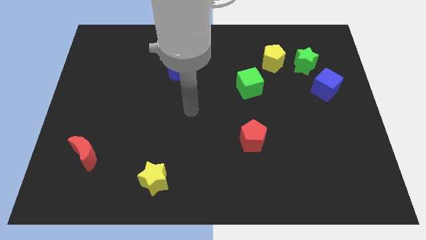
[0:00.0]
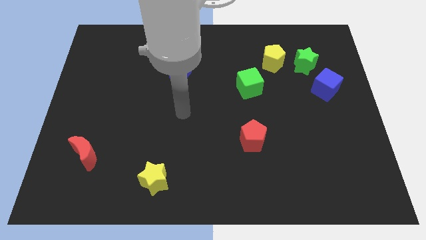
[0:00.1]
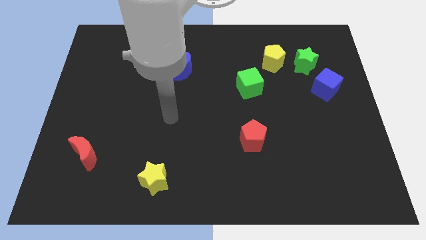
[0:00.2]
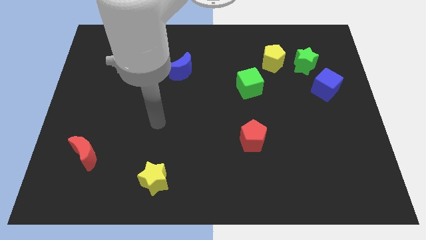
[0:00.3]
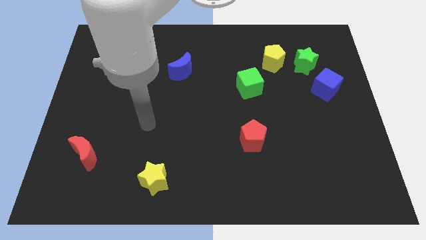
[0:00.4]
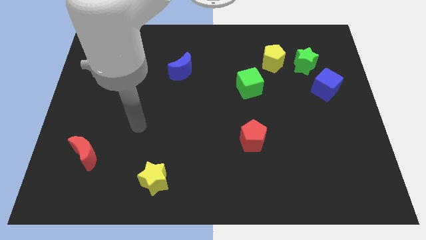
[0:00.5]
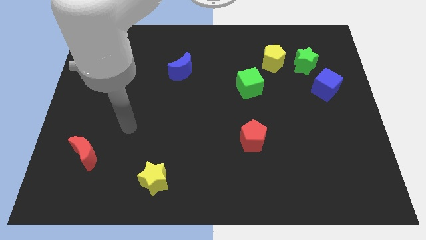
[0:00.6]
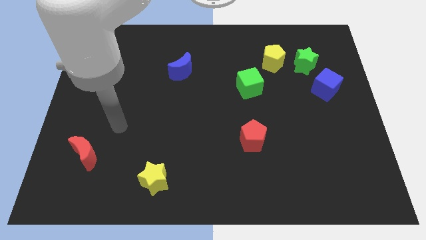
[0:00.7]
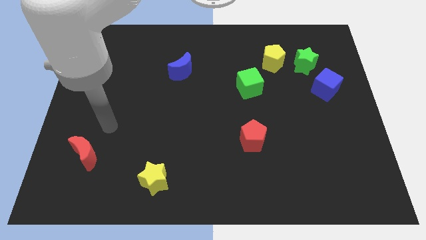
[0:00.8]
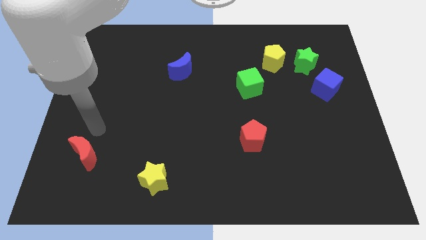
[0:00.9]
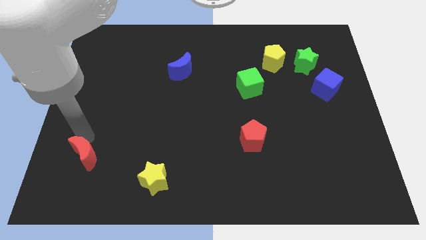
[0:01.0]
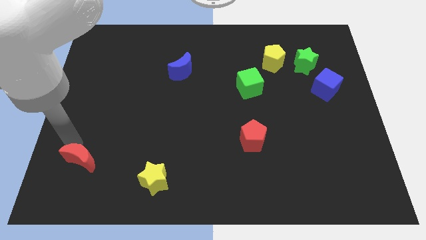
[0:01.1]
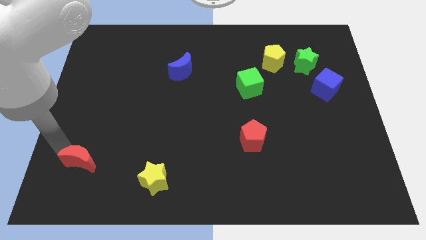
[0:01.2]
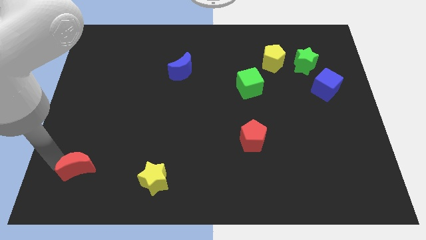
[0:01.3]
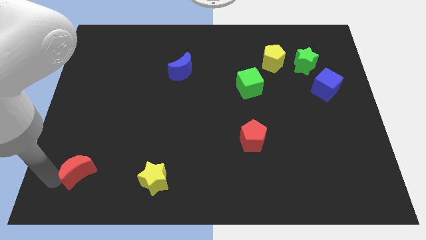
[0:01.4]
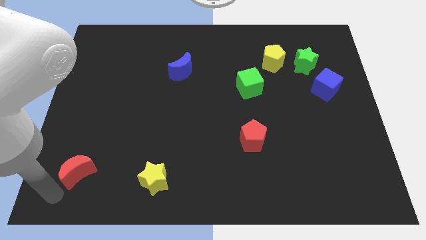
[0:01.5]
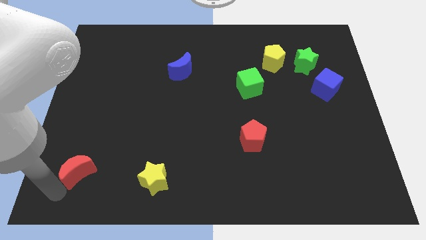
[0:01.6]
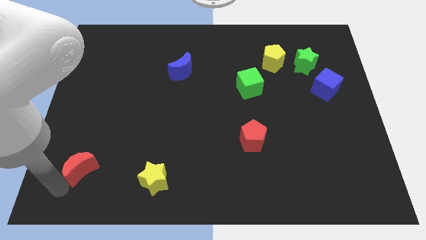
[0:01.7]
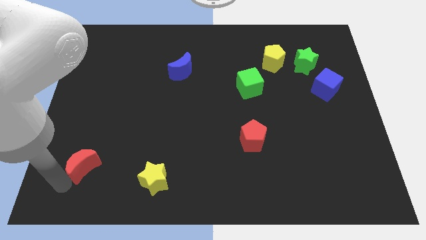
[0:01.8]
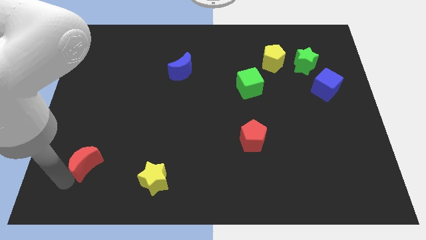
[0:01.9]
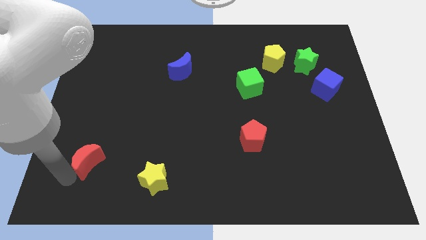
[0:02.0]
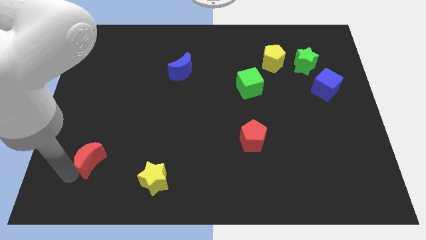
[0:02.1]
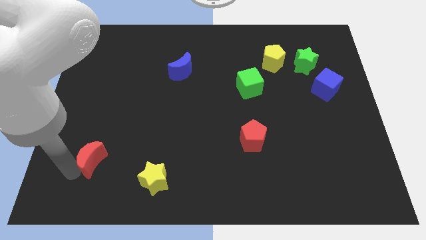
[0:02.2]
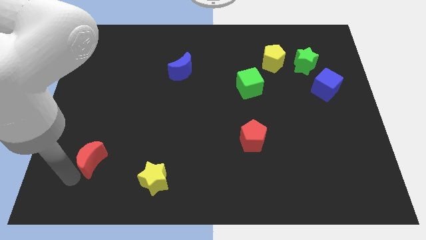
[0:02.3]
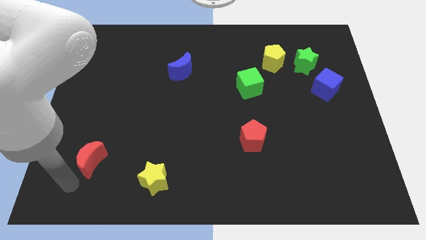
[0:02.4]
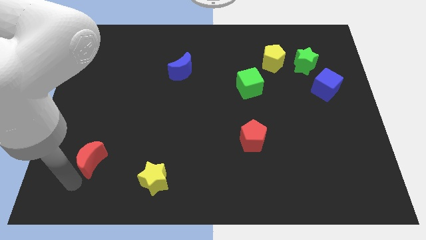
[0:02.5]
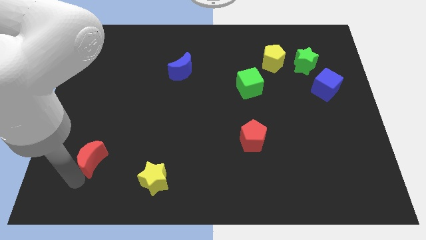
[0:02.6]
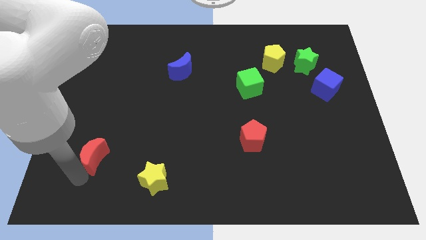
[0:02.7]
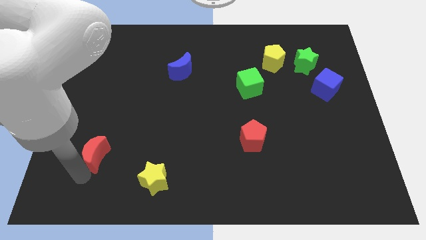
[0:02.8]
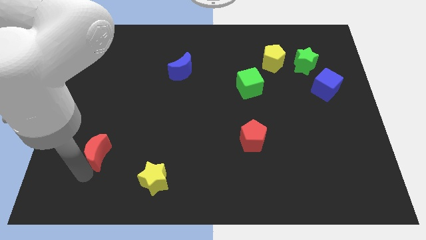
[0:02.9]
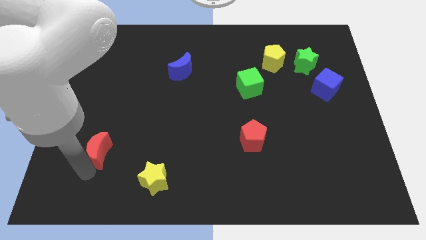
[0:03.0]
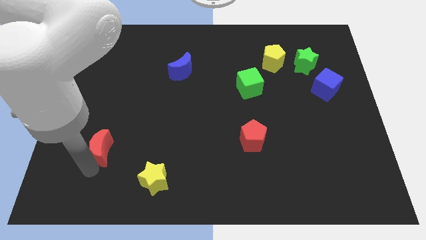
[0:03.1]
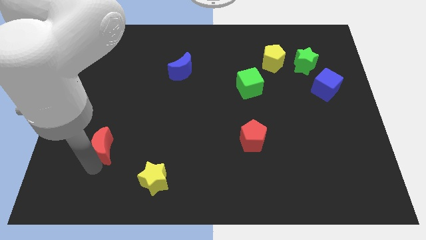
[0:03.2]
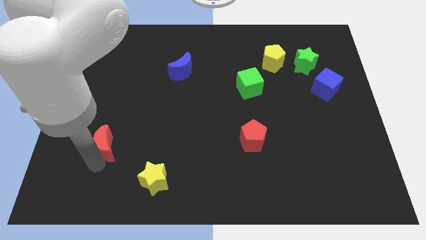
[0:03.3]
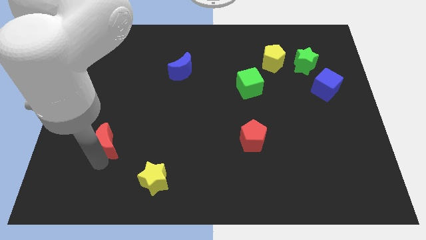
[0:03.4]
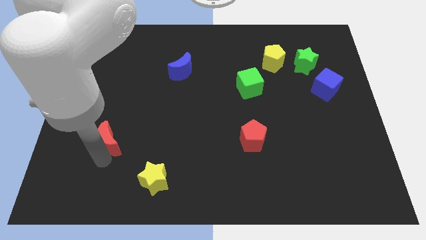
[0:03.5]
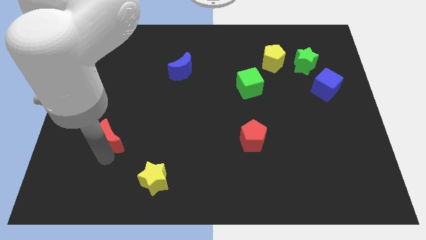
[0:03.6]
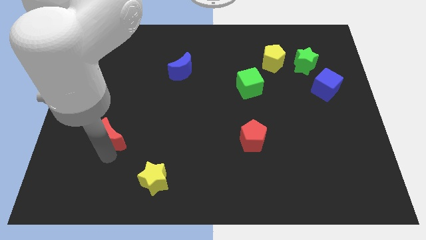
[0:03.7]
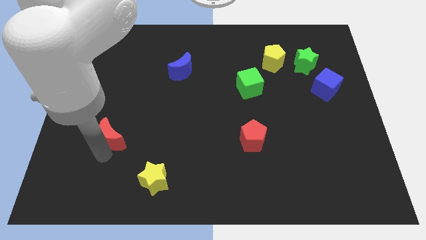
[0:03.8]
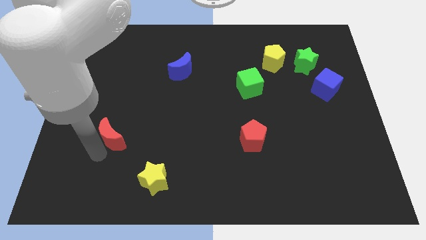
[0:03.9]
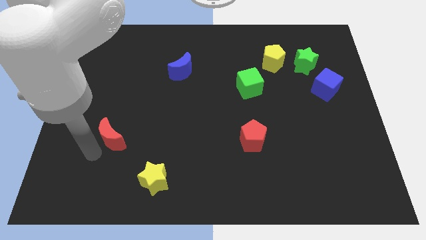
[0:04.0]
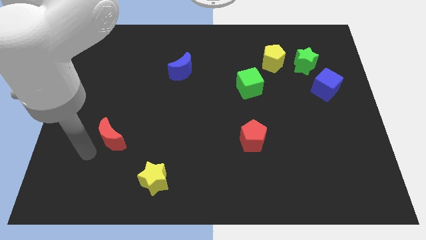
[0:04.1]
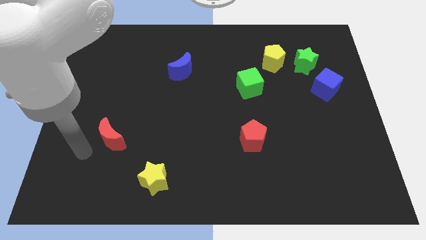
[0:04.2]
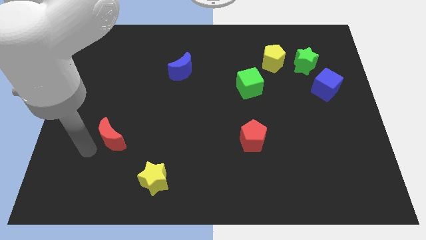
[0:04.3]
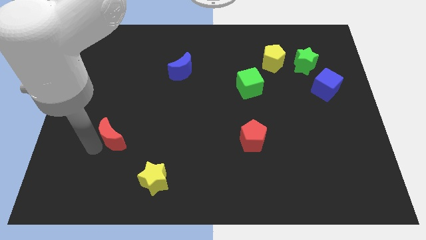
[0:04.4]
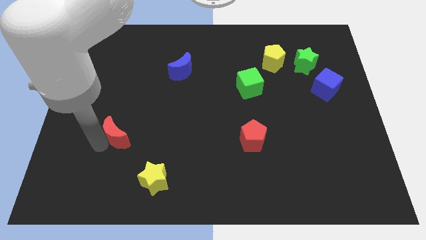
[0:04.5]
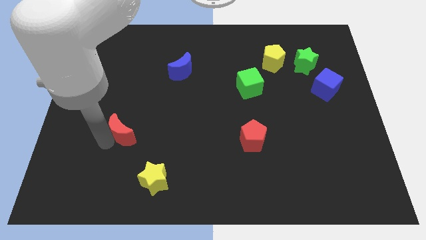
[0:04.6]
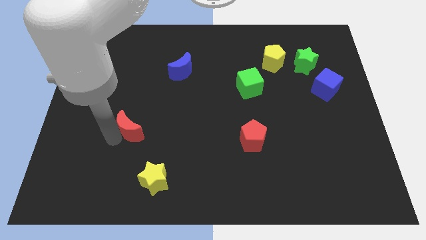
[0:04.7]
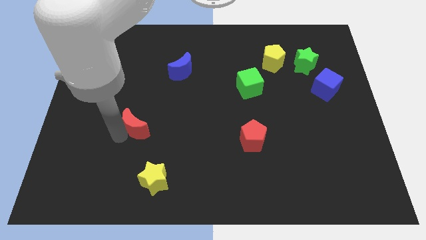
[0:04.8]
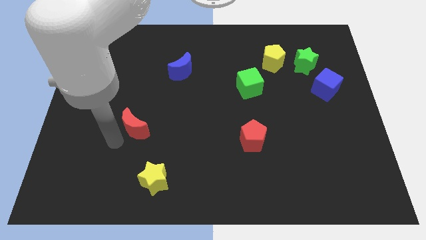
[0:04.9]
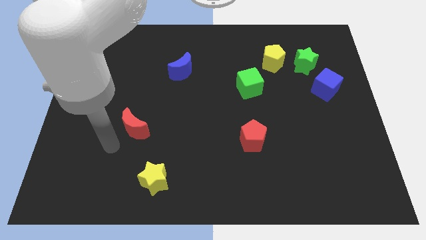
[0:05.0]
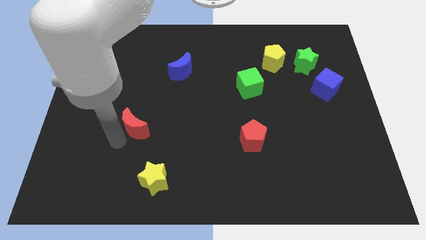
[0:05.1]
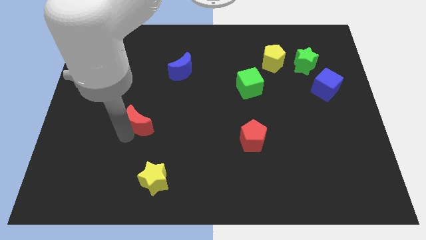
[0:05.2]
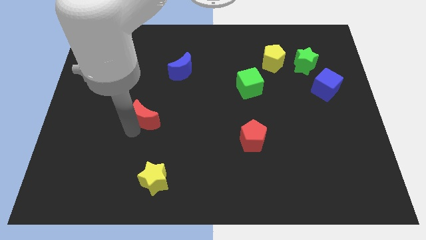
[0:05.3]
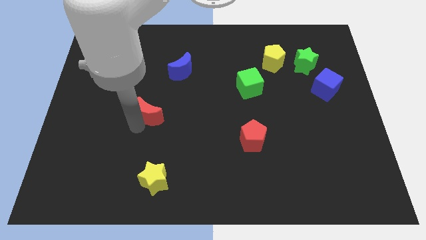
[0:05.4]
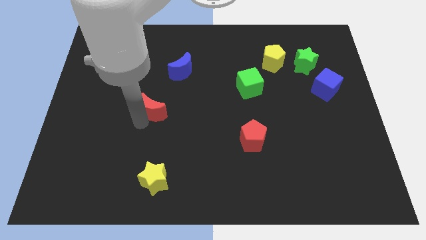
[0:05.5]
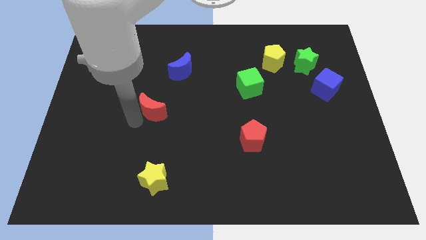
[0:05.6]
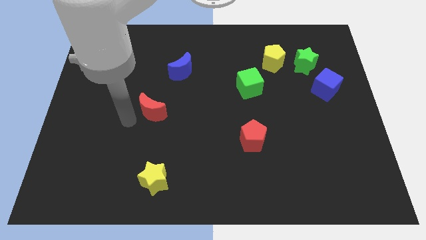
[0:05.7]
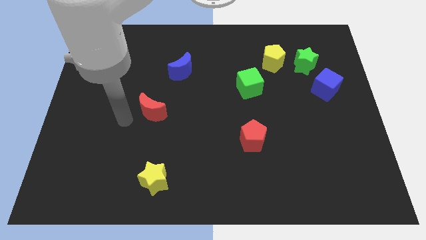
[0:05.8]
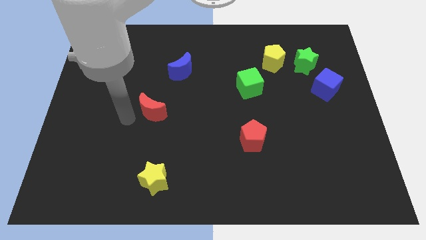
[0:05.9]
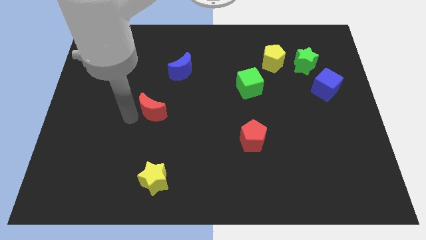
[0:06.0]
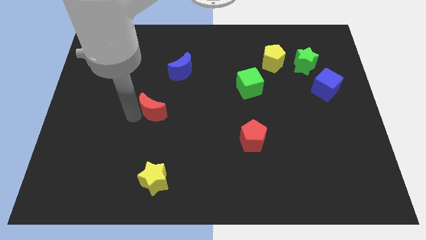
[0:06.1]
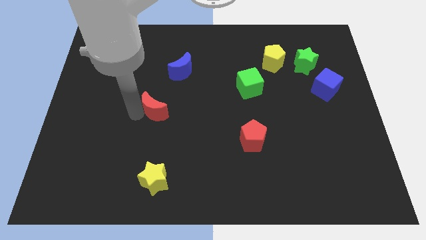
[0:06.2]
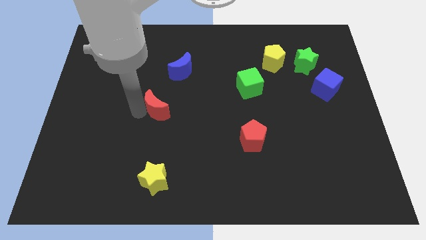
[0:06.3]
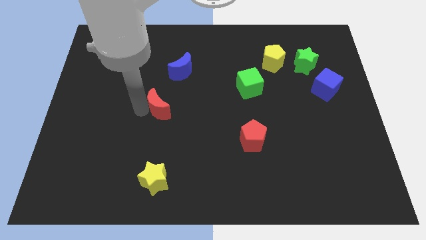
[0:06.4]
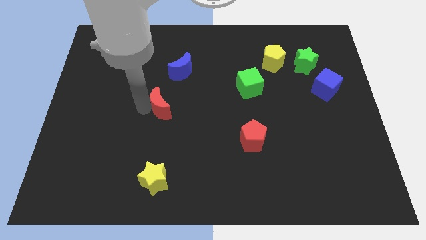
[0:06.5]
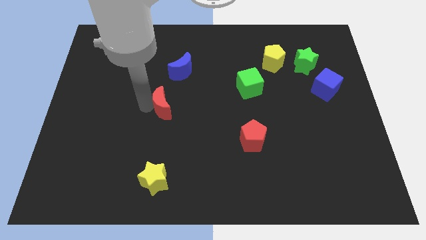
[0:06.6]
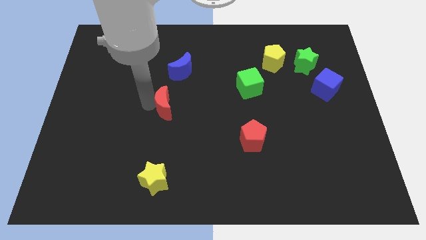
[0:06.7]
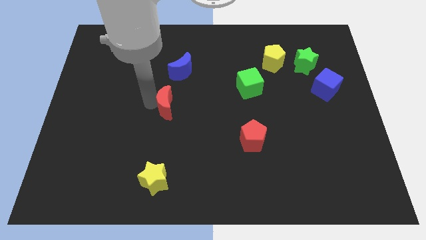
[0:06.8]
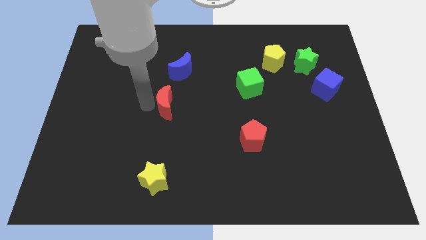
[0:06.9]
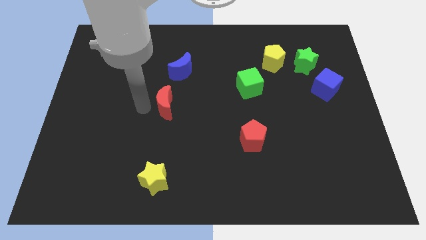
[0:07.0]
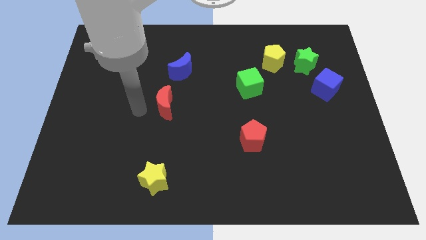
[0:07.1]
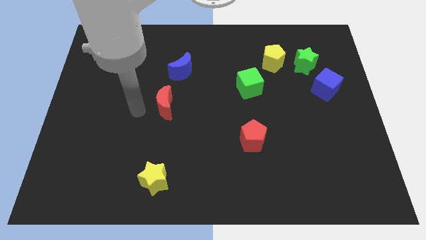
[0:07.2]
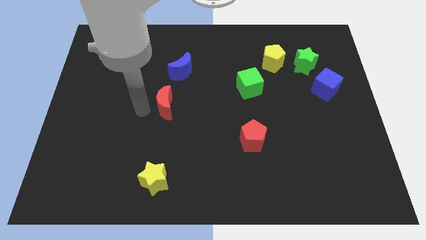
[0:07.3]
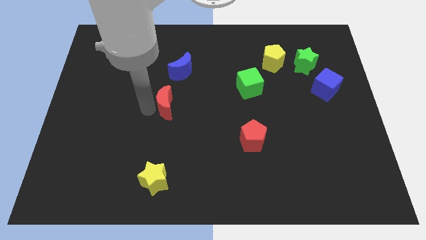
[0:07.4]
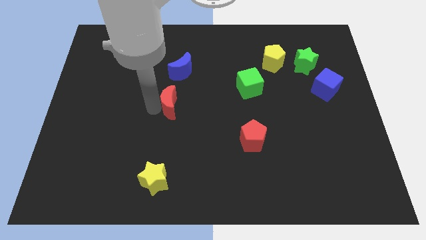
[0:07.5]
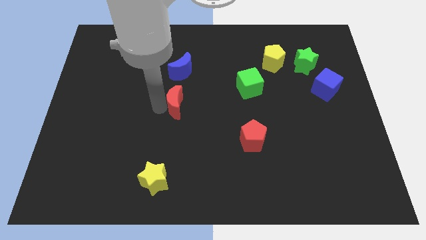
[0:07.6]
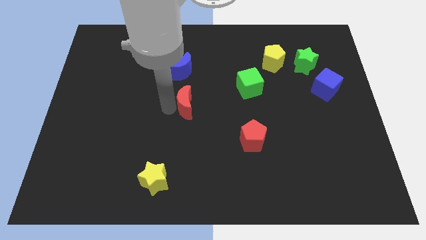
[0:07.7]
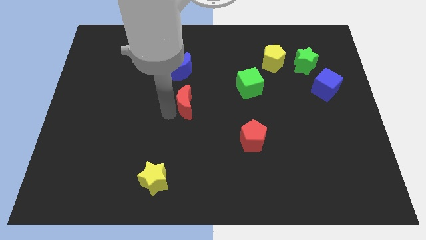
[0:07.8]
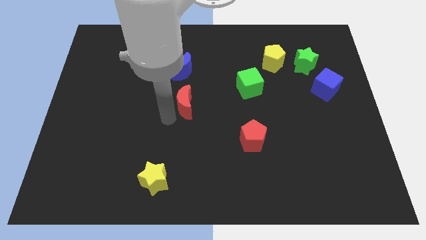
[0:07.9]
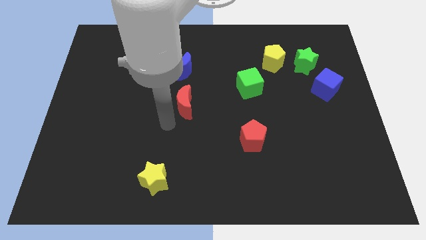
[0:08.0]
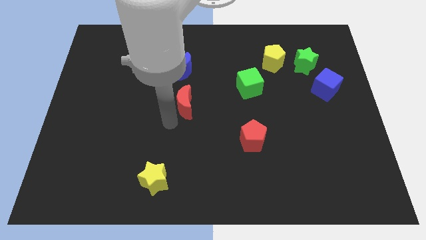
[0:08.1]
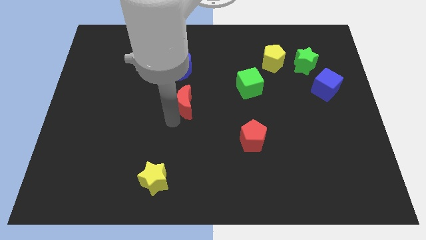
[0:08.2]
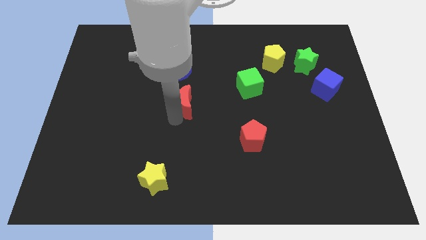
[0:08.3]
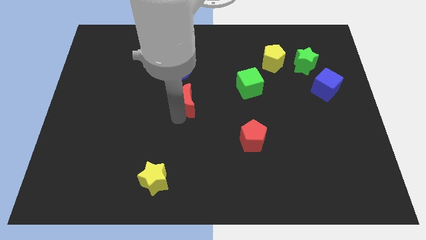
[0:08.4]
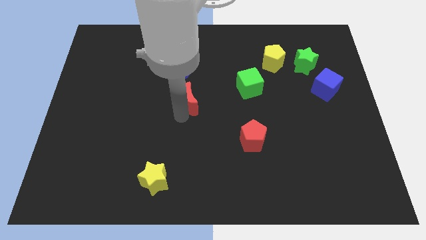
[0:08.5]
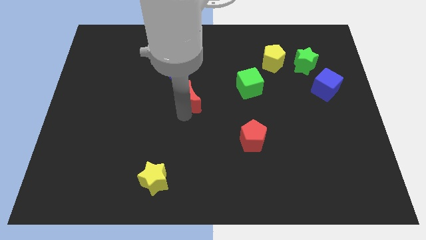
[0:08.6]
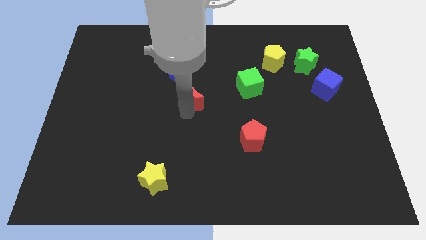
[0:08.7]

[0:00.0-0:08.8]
put the red moon diagonally down and to the right of the blue moon
